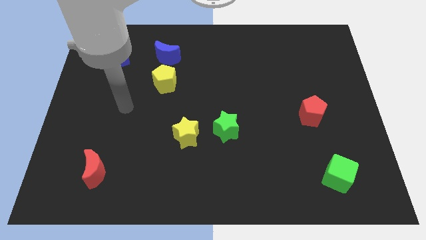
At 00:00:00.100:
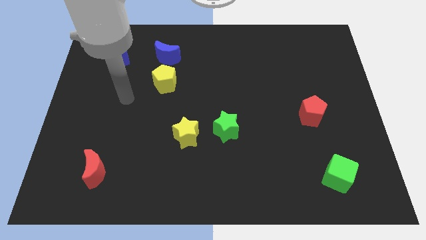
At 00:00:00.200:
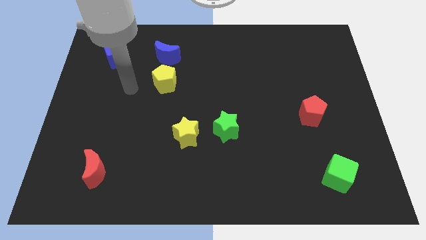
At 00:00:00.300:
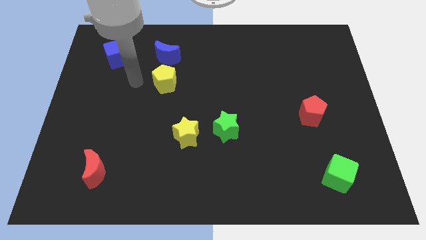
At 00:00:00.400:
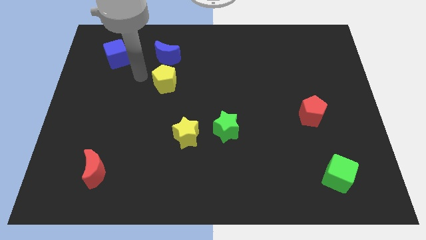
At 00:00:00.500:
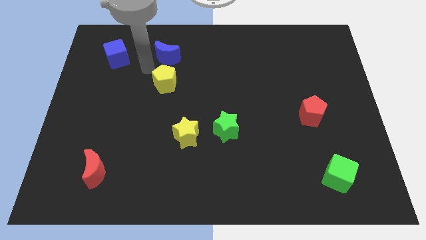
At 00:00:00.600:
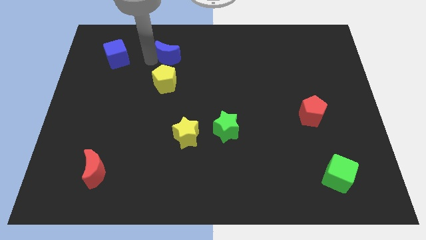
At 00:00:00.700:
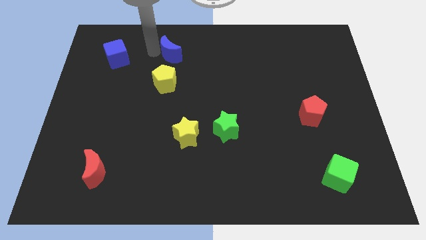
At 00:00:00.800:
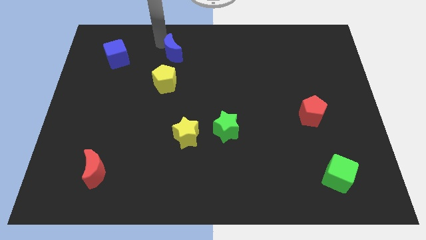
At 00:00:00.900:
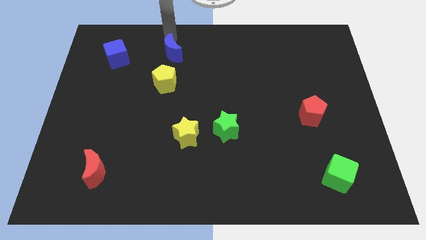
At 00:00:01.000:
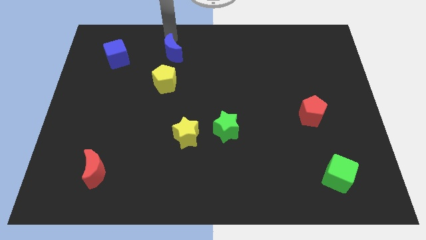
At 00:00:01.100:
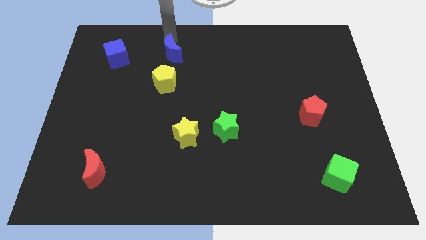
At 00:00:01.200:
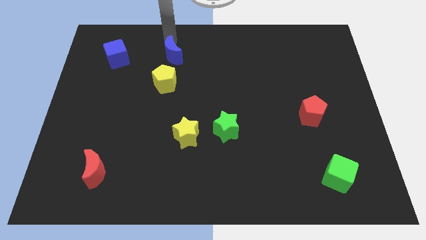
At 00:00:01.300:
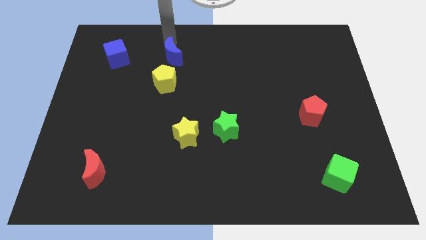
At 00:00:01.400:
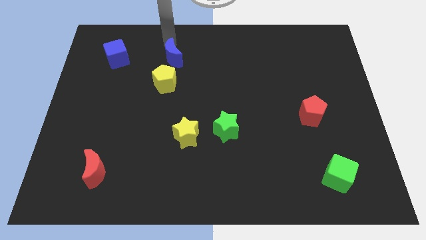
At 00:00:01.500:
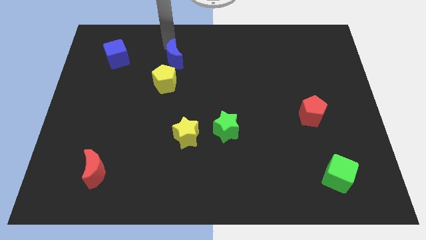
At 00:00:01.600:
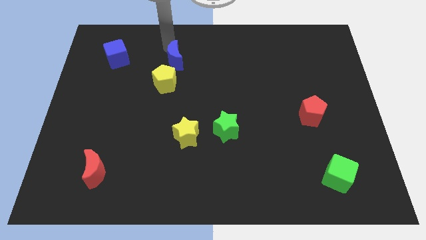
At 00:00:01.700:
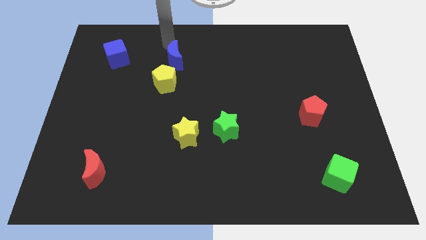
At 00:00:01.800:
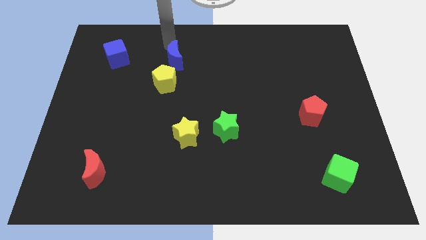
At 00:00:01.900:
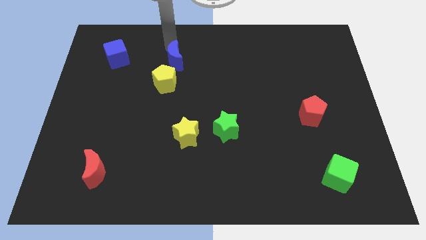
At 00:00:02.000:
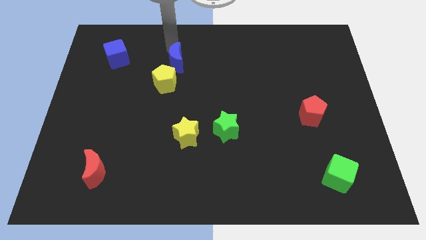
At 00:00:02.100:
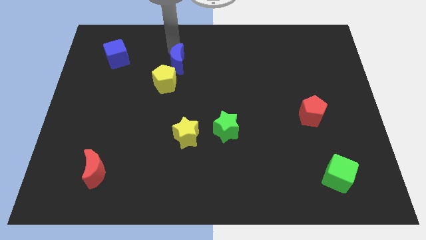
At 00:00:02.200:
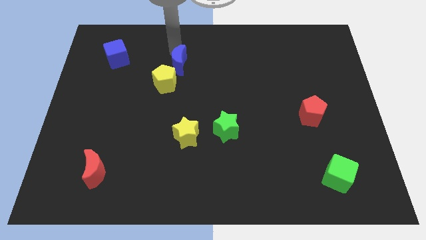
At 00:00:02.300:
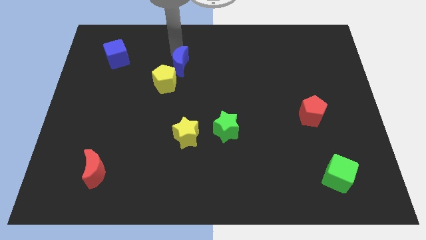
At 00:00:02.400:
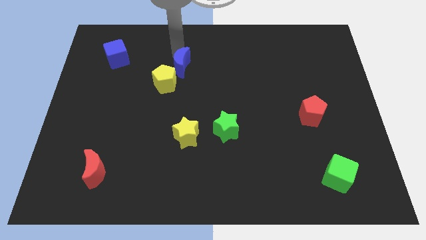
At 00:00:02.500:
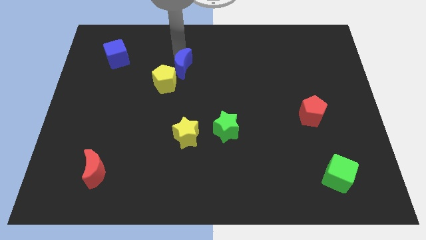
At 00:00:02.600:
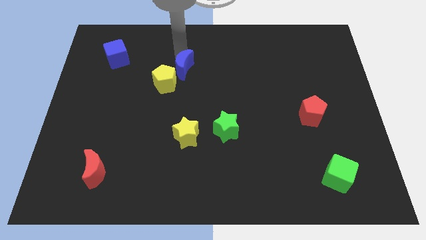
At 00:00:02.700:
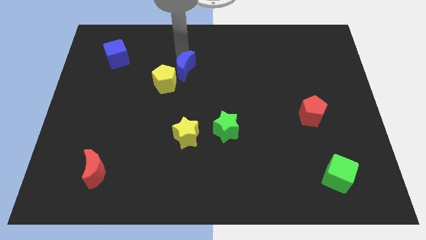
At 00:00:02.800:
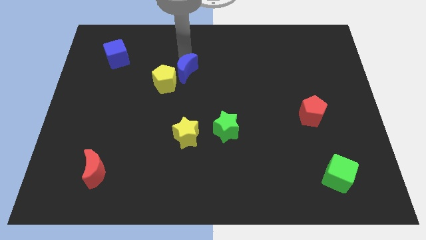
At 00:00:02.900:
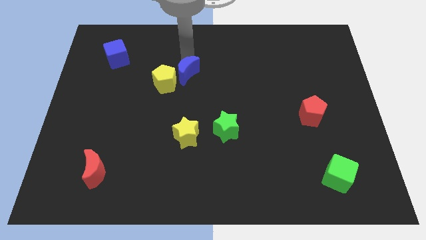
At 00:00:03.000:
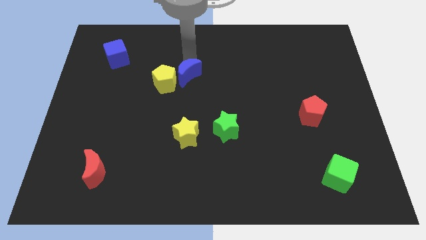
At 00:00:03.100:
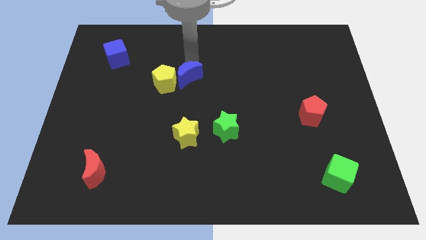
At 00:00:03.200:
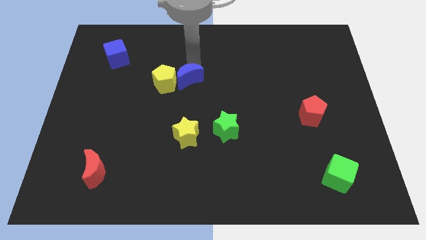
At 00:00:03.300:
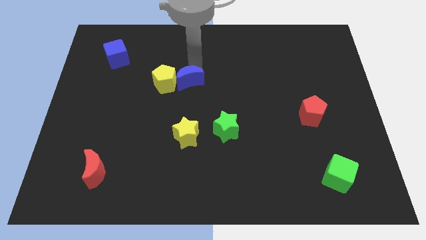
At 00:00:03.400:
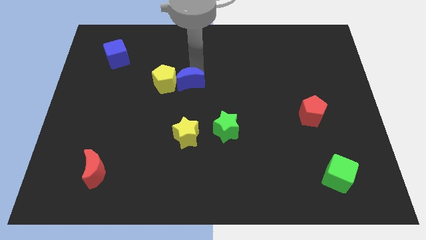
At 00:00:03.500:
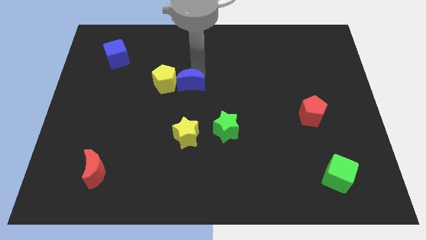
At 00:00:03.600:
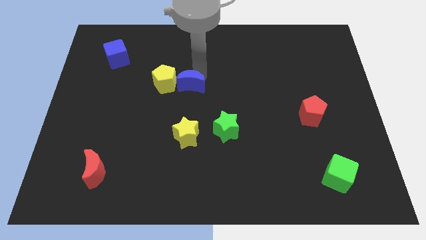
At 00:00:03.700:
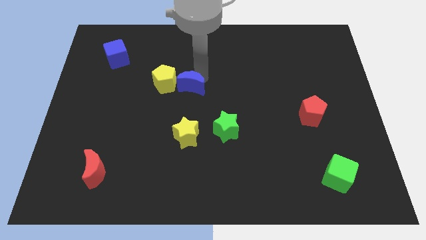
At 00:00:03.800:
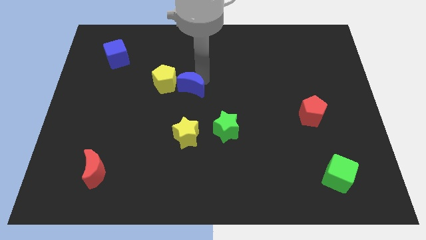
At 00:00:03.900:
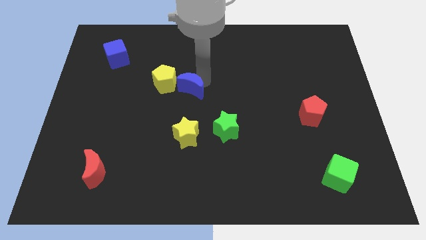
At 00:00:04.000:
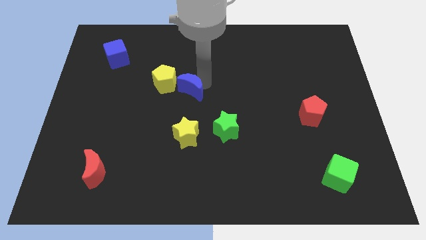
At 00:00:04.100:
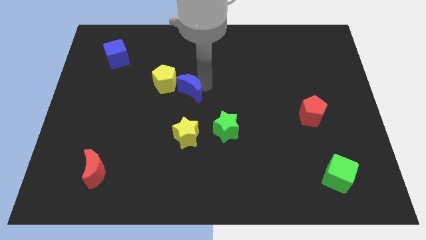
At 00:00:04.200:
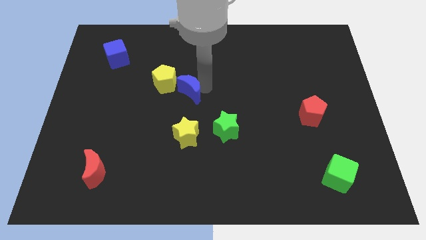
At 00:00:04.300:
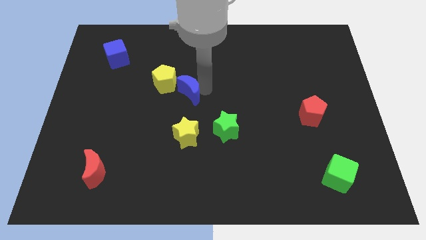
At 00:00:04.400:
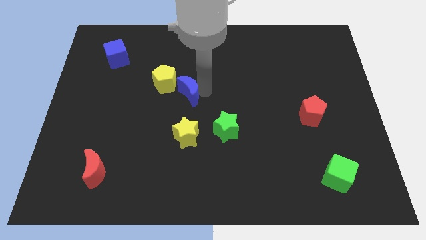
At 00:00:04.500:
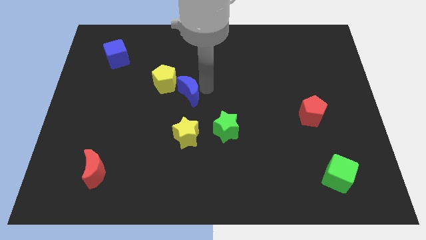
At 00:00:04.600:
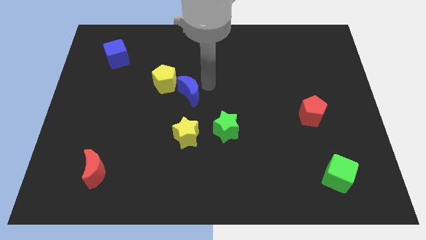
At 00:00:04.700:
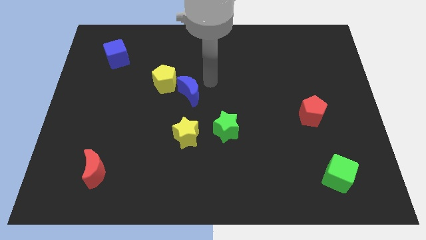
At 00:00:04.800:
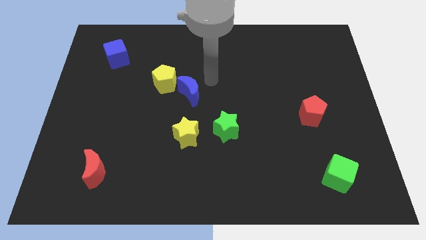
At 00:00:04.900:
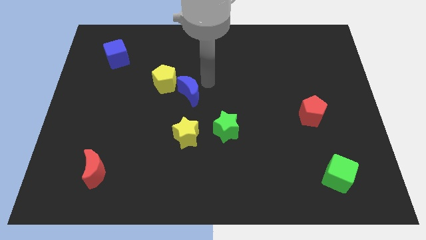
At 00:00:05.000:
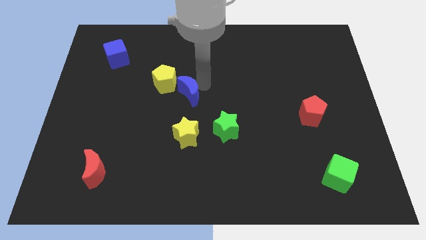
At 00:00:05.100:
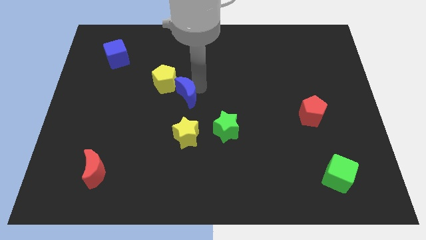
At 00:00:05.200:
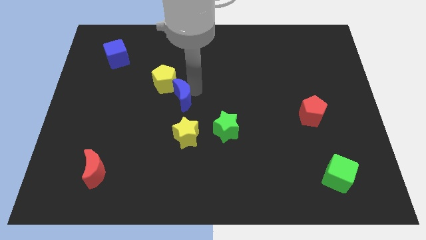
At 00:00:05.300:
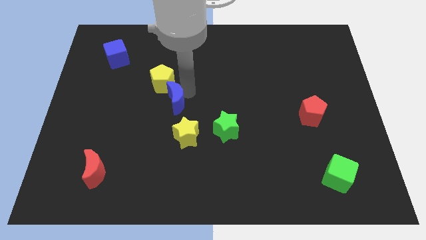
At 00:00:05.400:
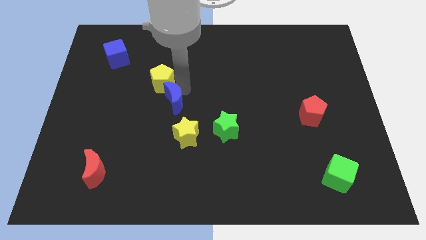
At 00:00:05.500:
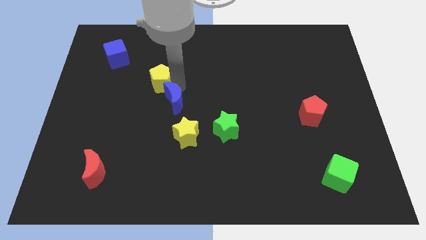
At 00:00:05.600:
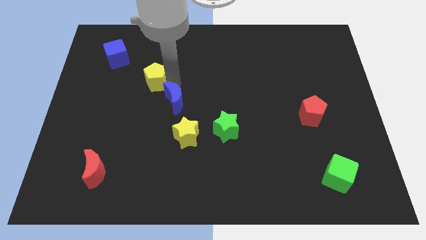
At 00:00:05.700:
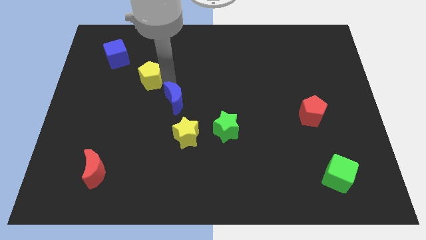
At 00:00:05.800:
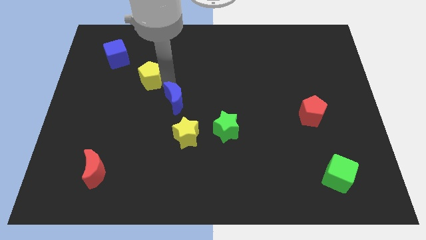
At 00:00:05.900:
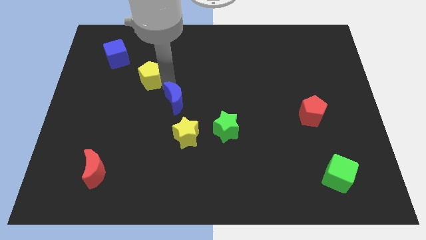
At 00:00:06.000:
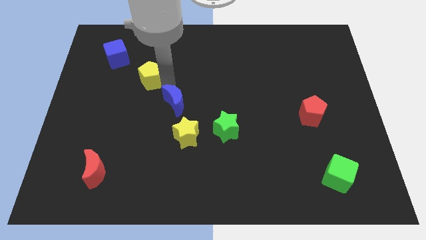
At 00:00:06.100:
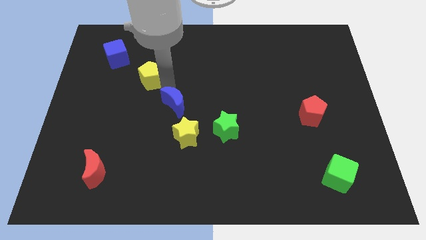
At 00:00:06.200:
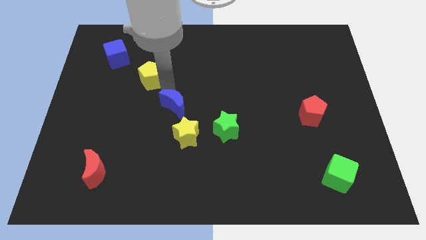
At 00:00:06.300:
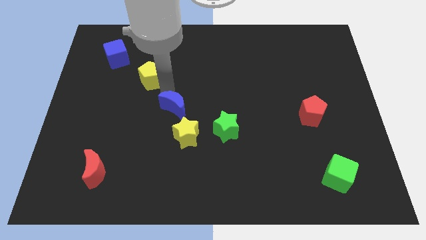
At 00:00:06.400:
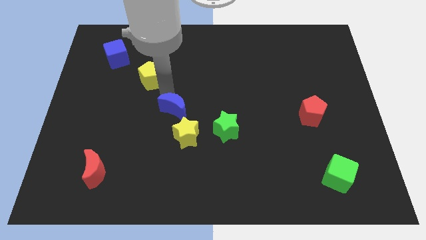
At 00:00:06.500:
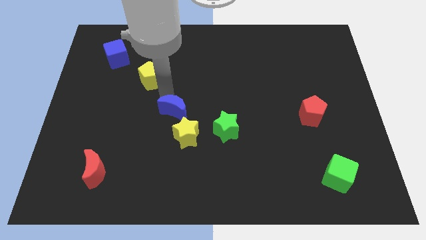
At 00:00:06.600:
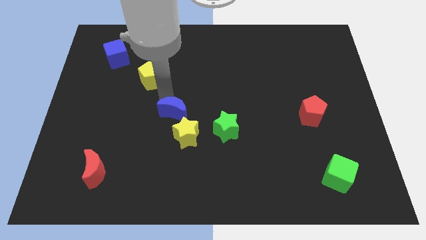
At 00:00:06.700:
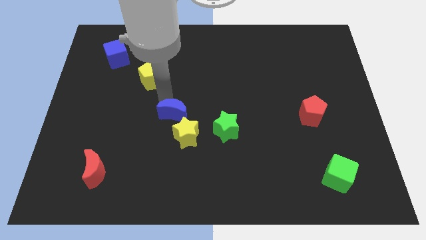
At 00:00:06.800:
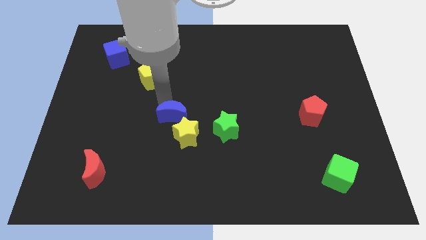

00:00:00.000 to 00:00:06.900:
put the blue moon next to the yellow star
